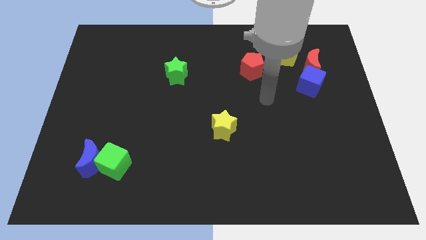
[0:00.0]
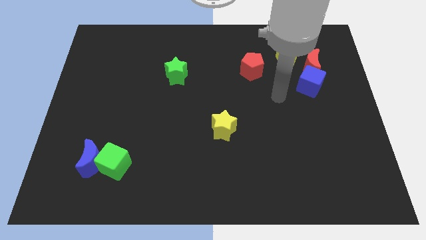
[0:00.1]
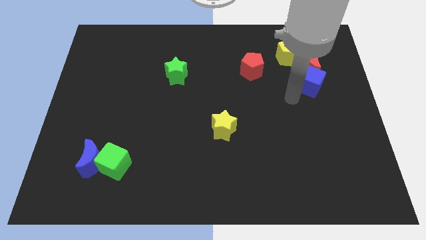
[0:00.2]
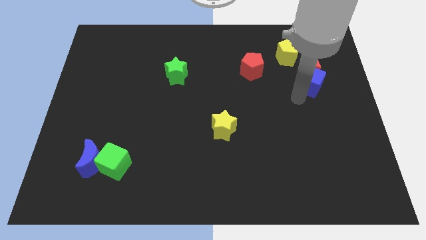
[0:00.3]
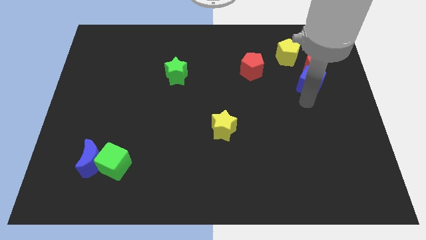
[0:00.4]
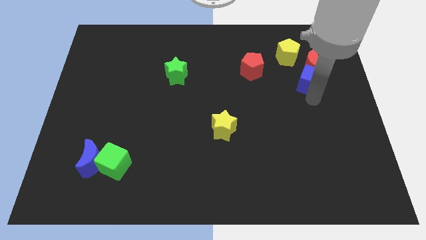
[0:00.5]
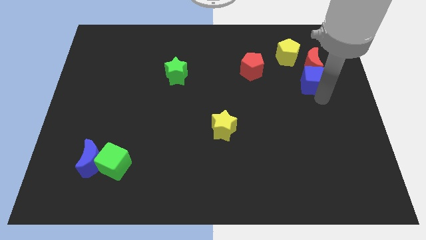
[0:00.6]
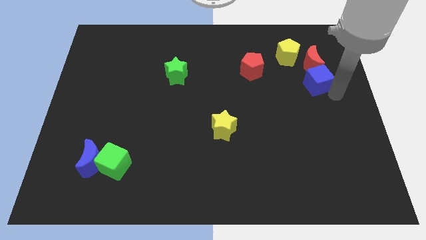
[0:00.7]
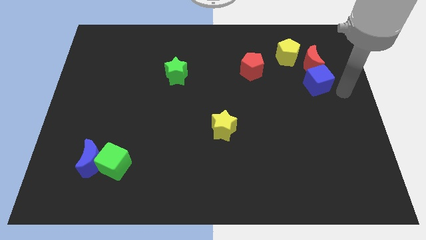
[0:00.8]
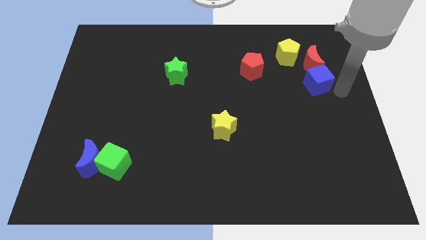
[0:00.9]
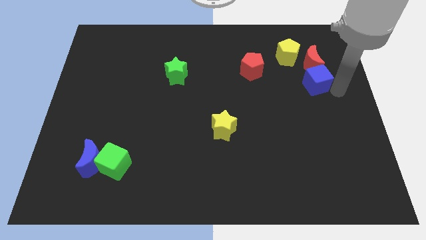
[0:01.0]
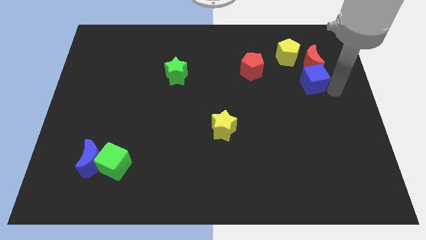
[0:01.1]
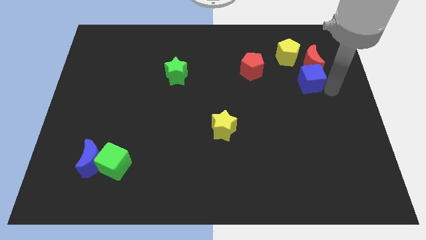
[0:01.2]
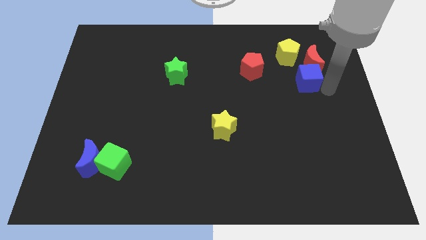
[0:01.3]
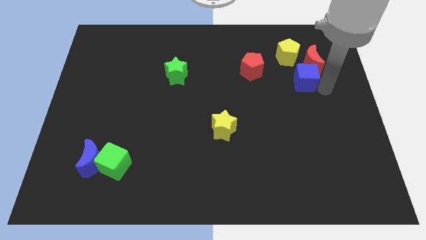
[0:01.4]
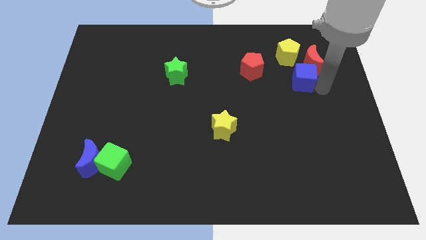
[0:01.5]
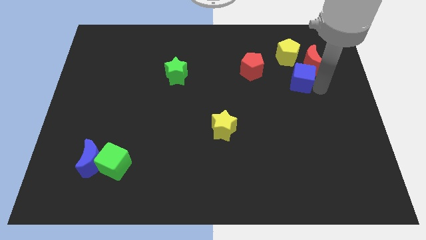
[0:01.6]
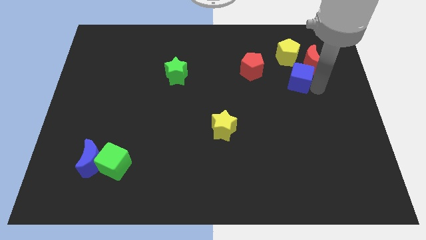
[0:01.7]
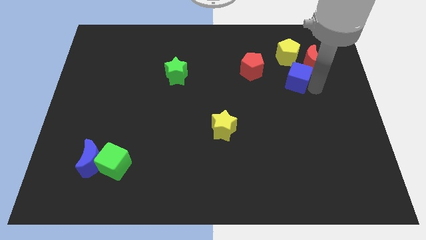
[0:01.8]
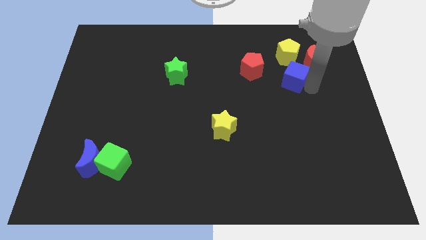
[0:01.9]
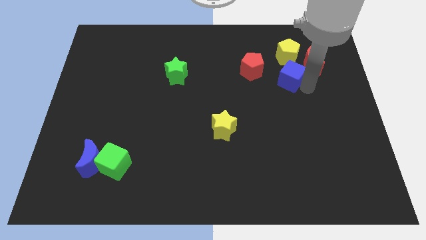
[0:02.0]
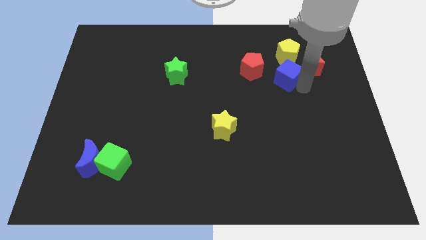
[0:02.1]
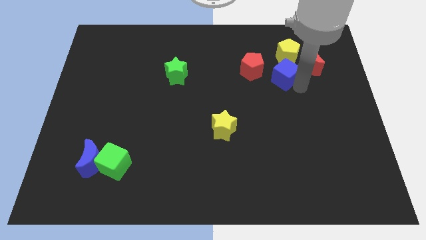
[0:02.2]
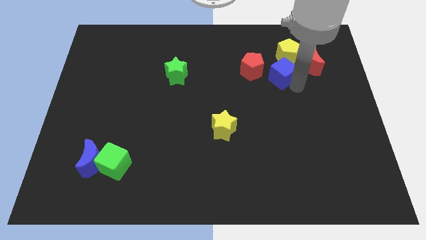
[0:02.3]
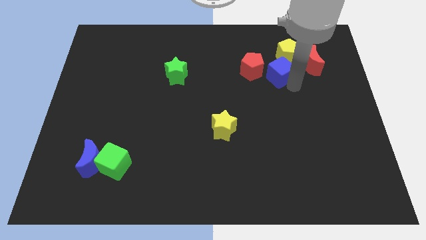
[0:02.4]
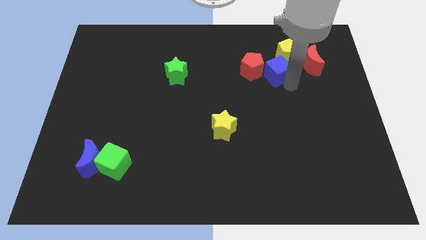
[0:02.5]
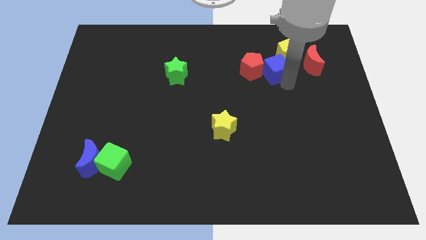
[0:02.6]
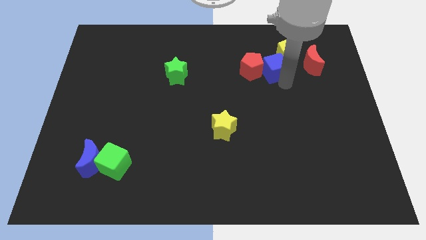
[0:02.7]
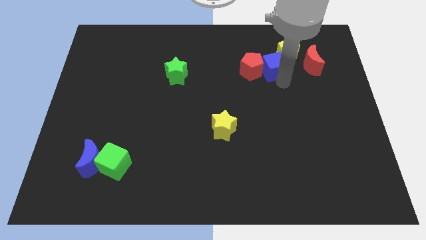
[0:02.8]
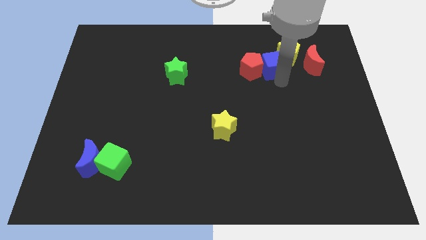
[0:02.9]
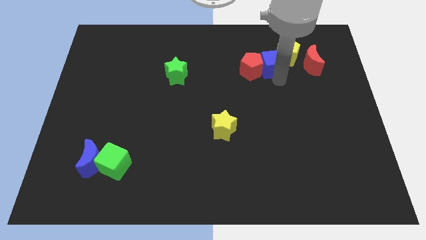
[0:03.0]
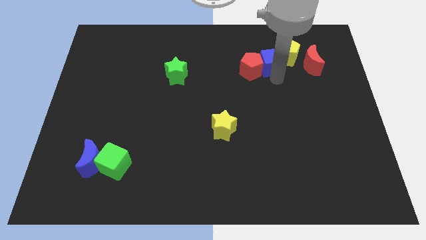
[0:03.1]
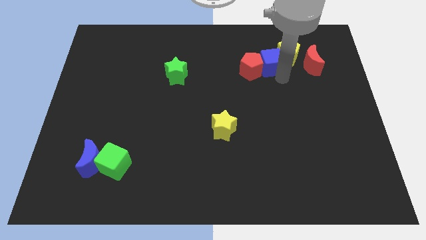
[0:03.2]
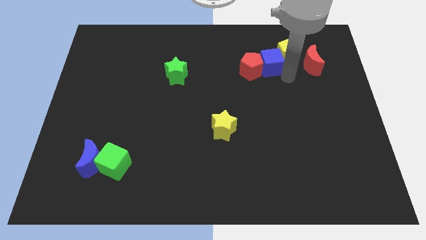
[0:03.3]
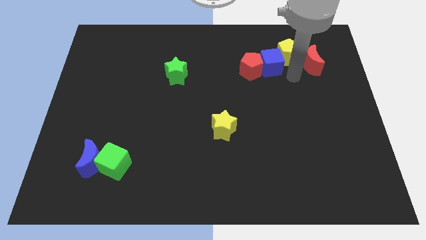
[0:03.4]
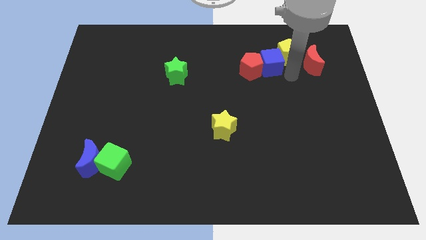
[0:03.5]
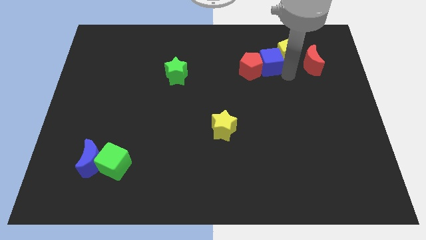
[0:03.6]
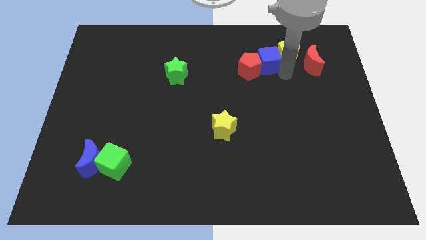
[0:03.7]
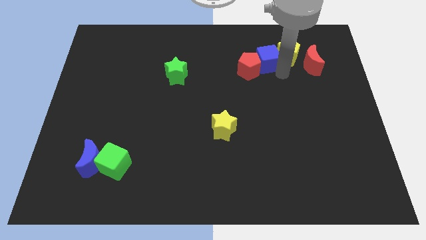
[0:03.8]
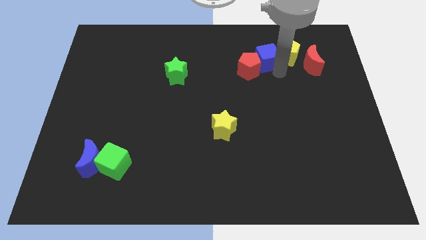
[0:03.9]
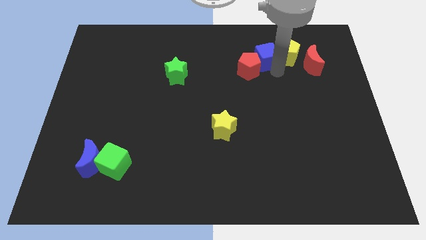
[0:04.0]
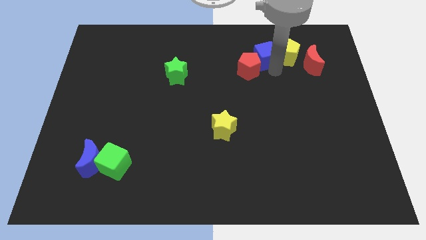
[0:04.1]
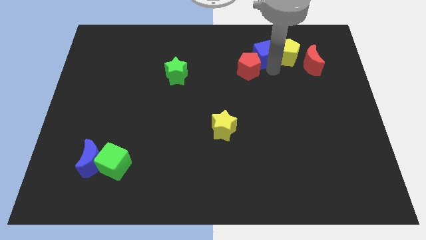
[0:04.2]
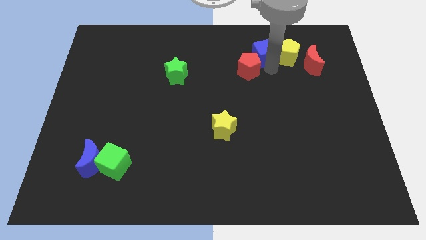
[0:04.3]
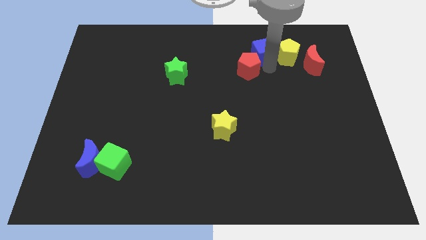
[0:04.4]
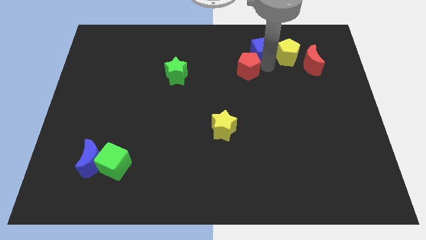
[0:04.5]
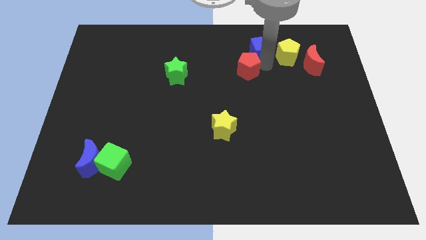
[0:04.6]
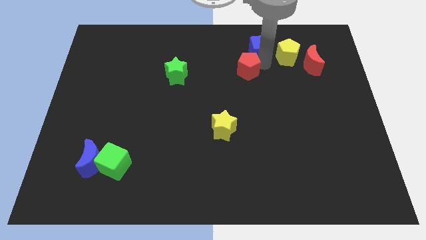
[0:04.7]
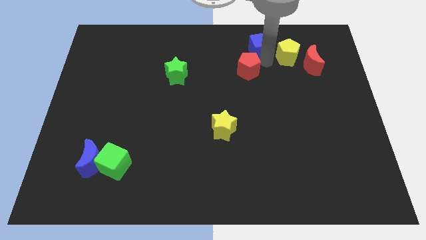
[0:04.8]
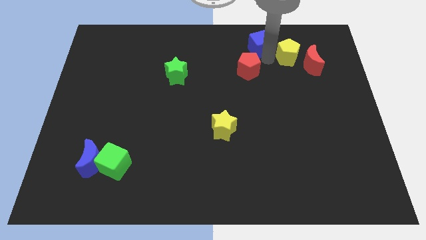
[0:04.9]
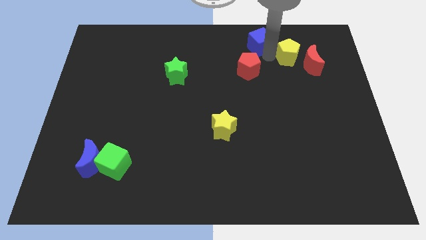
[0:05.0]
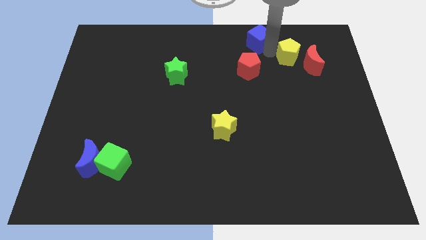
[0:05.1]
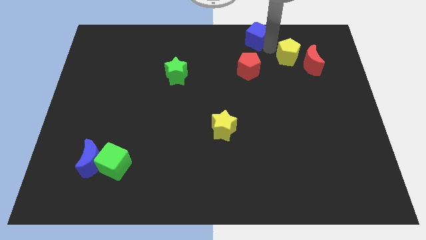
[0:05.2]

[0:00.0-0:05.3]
move the blue cube to the top side
